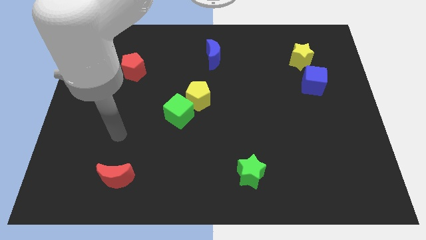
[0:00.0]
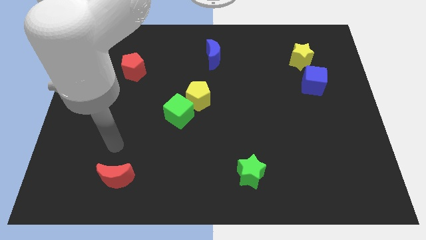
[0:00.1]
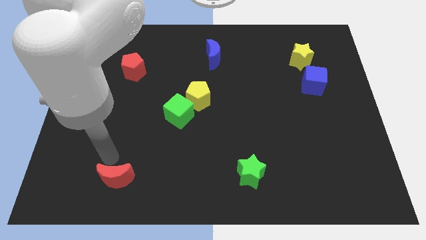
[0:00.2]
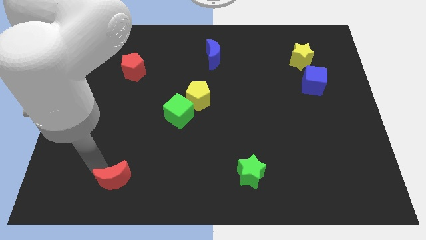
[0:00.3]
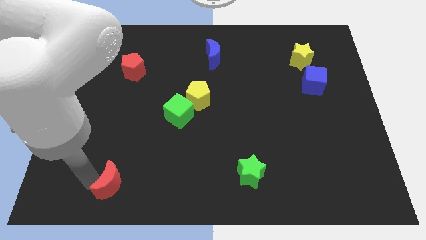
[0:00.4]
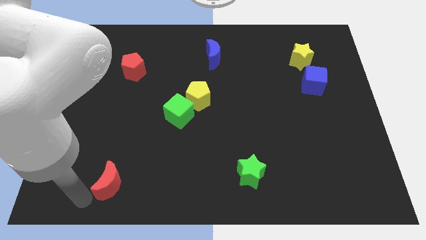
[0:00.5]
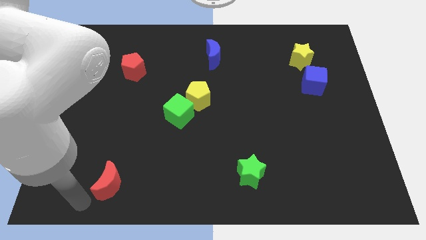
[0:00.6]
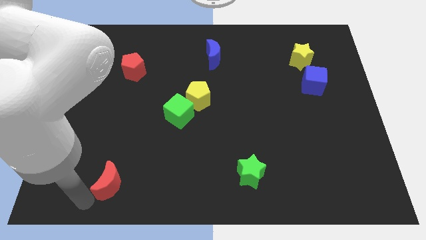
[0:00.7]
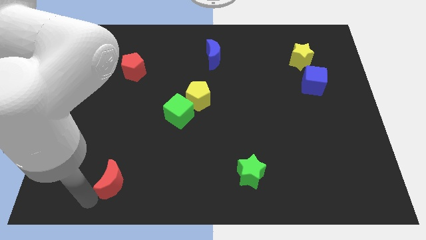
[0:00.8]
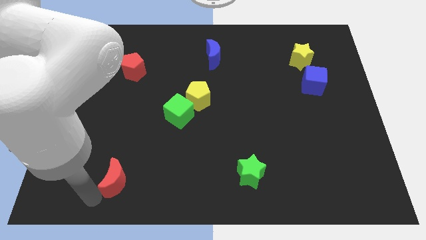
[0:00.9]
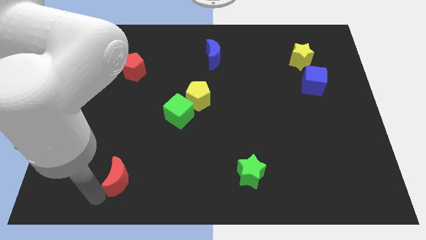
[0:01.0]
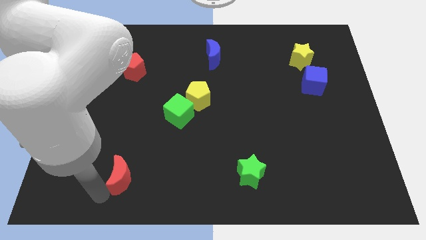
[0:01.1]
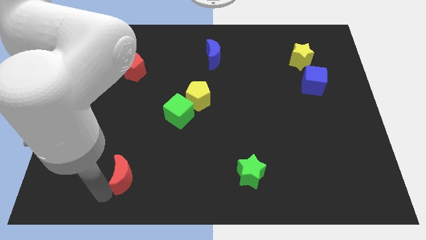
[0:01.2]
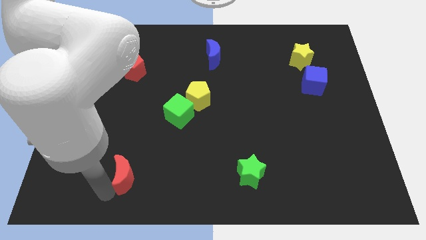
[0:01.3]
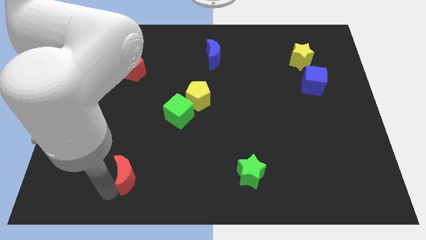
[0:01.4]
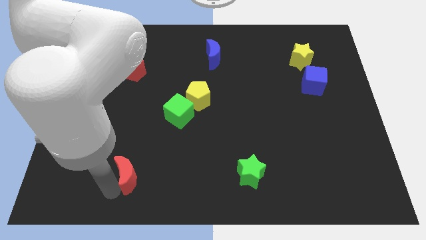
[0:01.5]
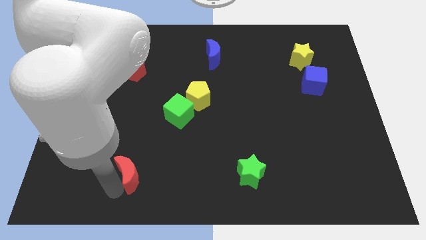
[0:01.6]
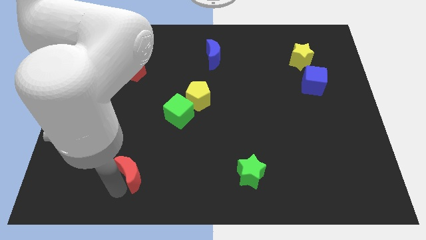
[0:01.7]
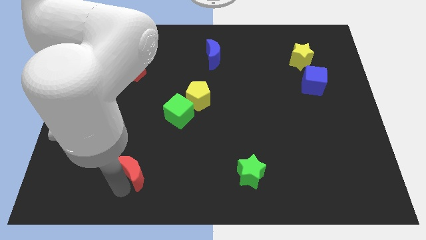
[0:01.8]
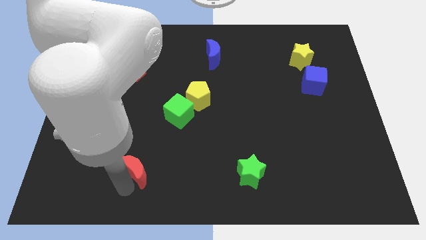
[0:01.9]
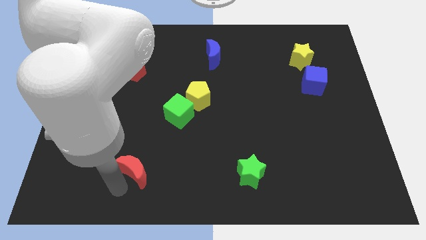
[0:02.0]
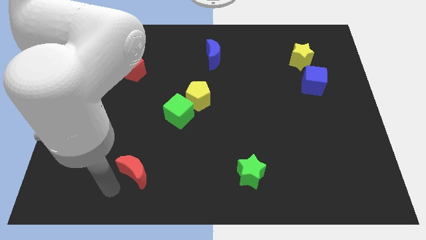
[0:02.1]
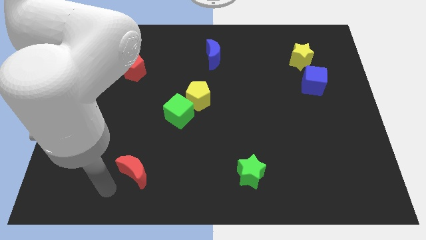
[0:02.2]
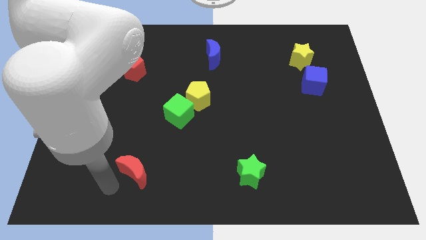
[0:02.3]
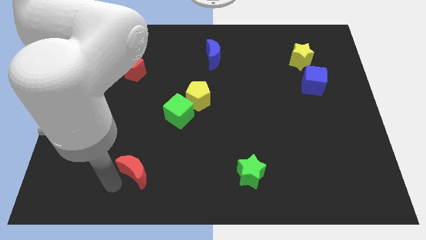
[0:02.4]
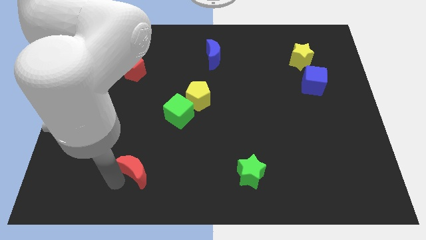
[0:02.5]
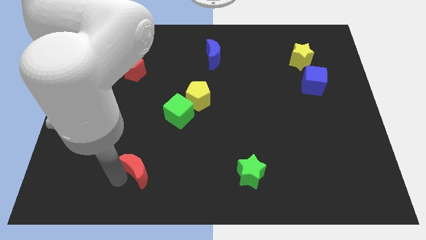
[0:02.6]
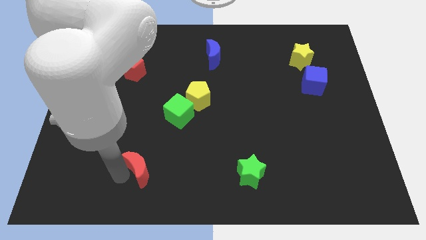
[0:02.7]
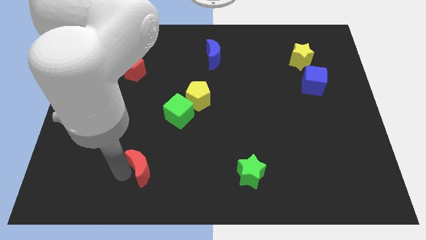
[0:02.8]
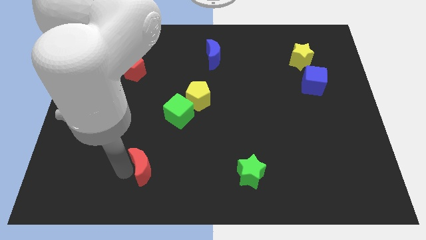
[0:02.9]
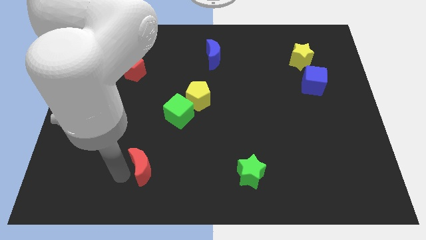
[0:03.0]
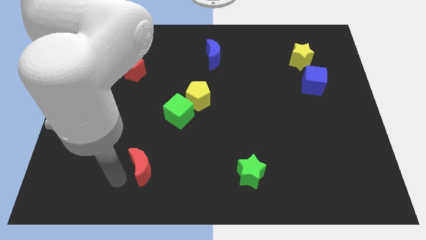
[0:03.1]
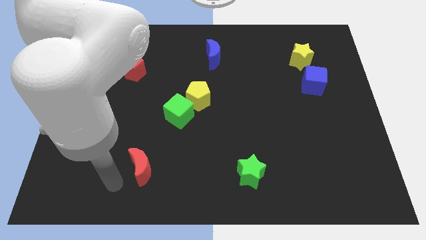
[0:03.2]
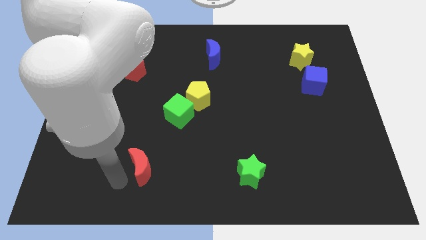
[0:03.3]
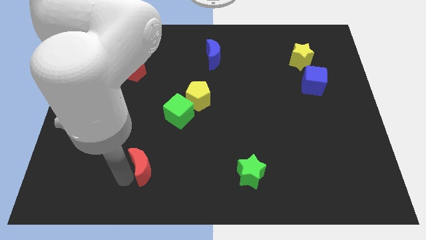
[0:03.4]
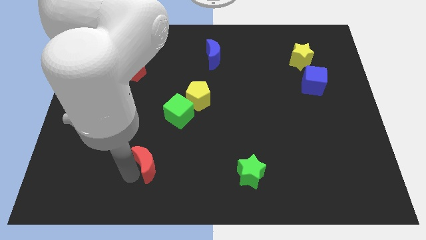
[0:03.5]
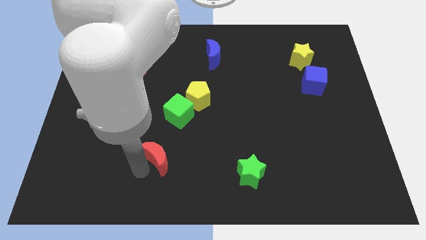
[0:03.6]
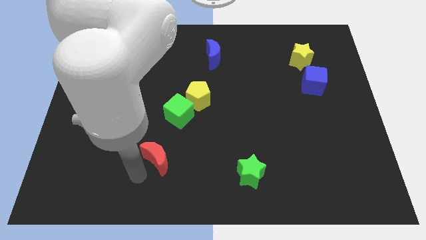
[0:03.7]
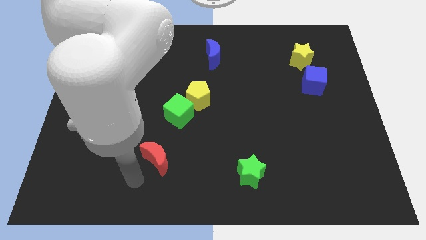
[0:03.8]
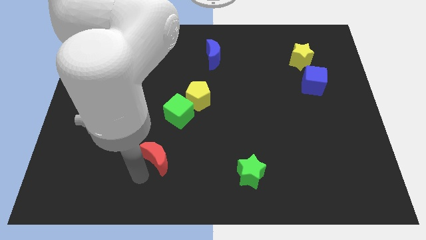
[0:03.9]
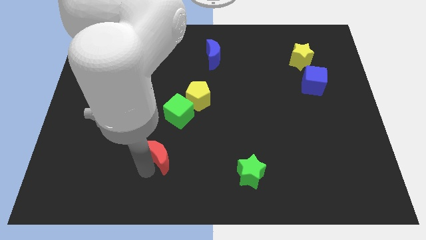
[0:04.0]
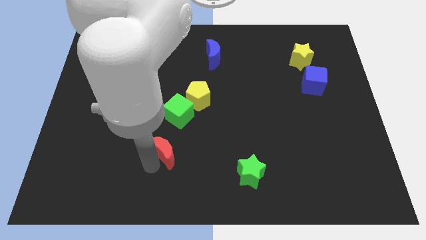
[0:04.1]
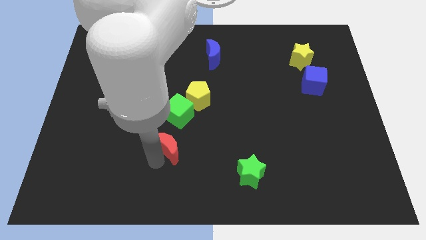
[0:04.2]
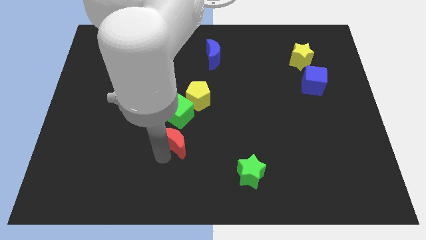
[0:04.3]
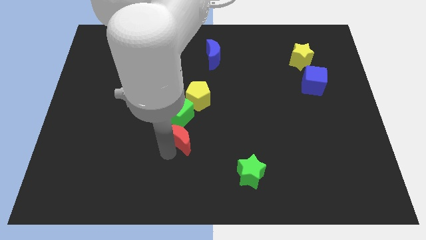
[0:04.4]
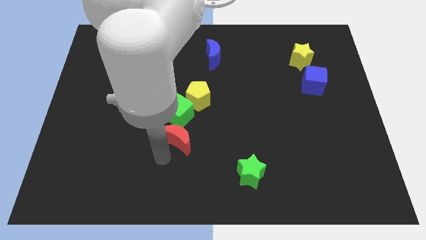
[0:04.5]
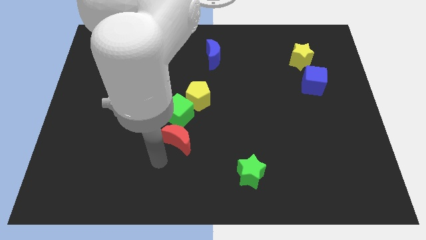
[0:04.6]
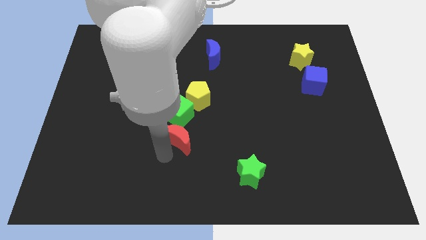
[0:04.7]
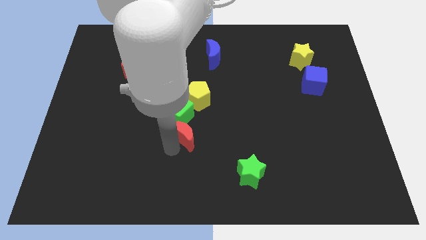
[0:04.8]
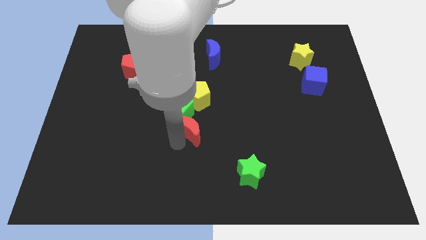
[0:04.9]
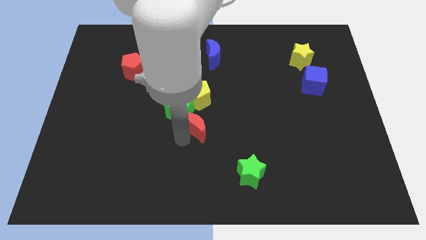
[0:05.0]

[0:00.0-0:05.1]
move the red moon up and then right

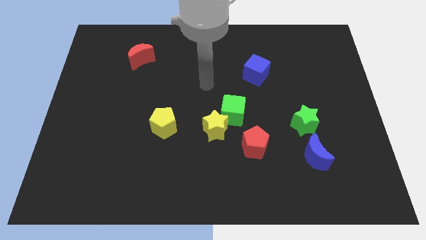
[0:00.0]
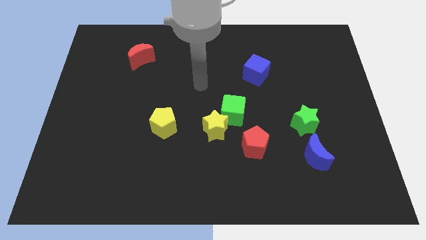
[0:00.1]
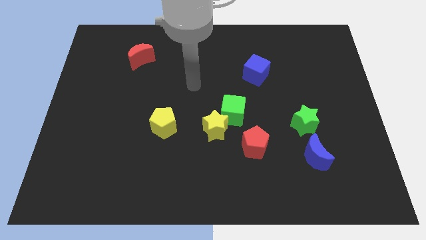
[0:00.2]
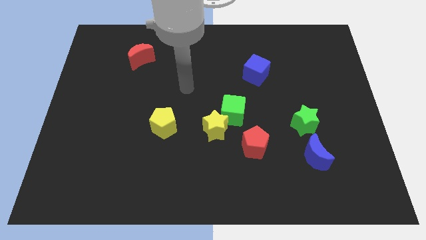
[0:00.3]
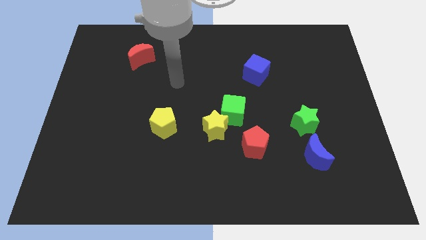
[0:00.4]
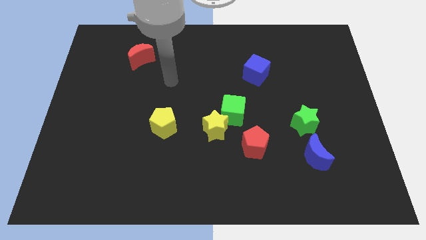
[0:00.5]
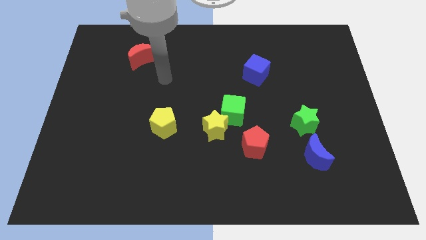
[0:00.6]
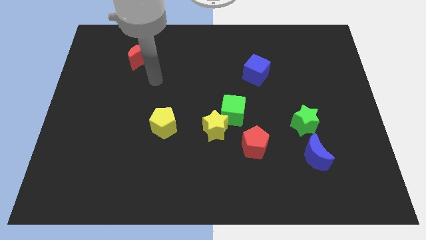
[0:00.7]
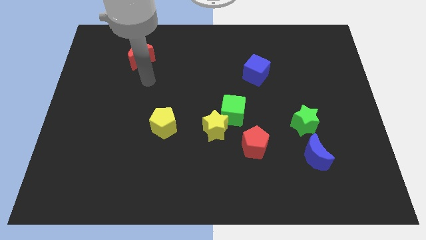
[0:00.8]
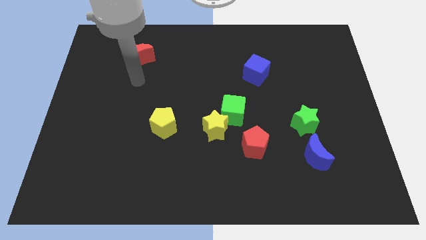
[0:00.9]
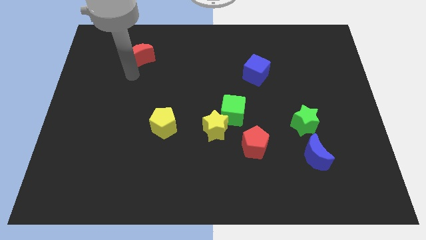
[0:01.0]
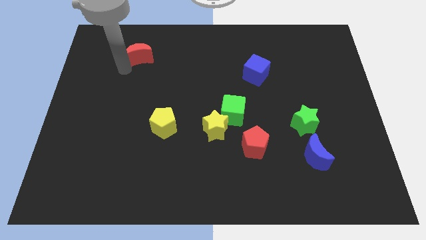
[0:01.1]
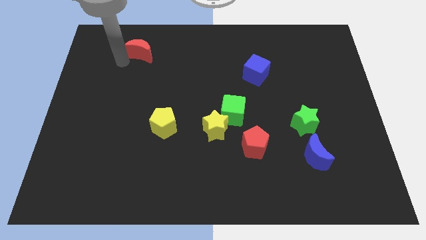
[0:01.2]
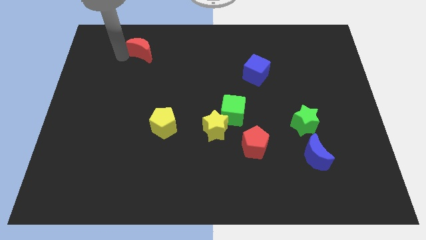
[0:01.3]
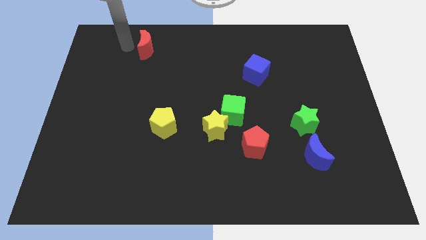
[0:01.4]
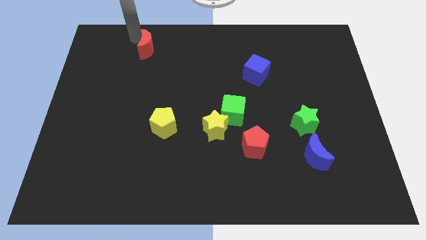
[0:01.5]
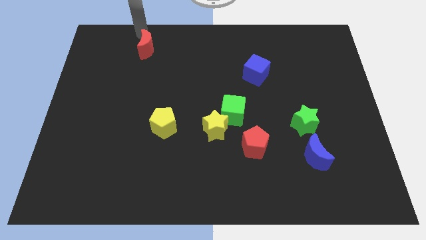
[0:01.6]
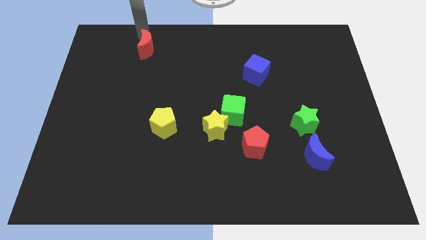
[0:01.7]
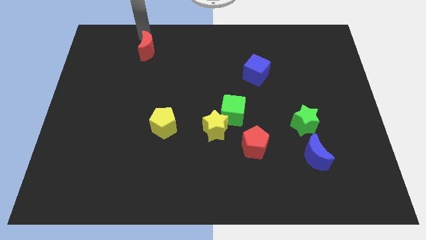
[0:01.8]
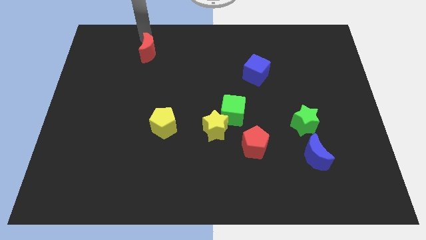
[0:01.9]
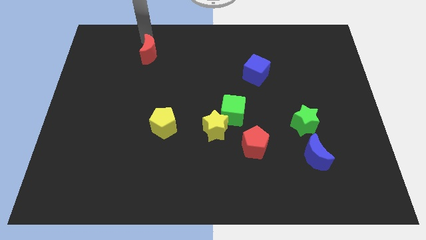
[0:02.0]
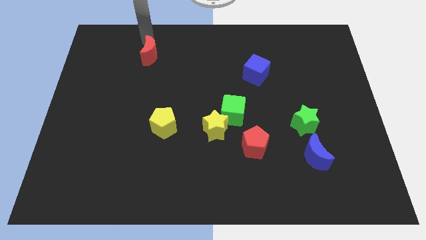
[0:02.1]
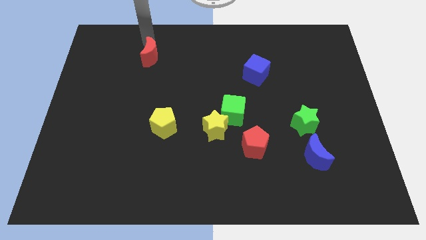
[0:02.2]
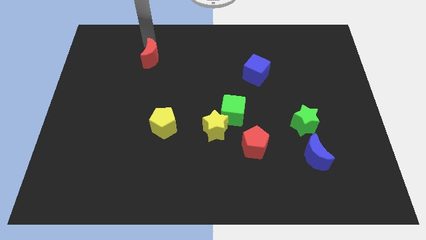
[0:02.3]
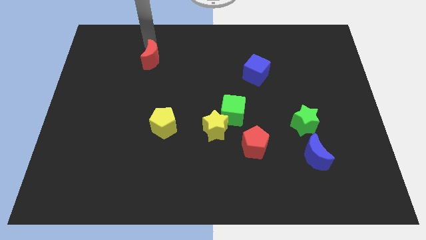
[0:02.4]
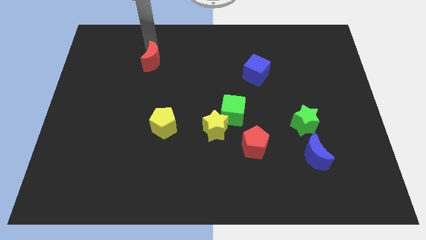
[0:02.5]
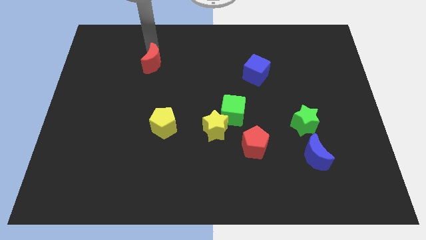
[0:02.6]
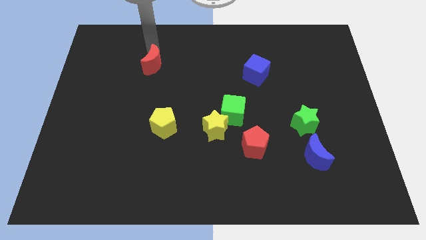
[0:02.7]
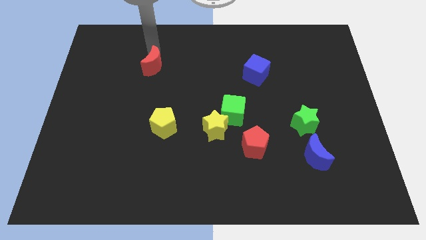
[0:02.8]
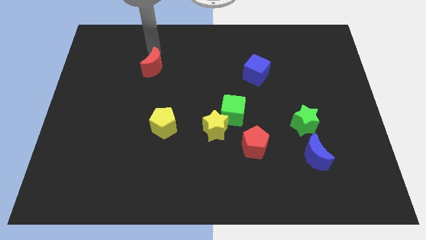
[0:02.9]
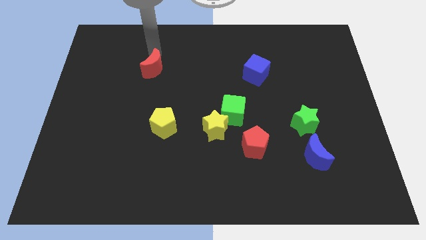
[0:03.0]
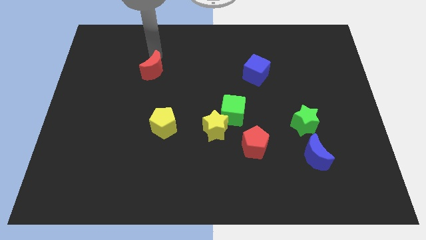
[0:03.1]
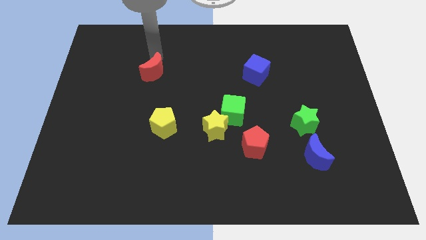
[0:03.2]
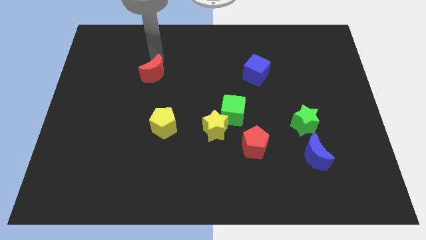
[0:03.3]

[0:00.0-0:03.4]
slide the red moon somewhat diagonally down and to the right
